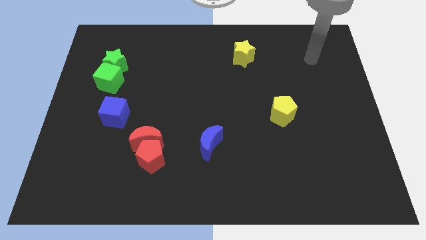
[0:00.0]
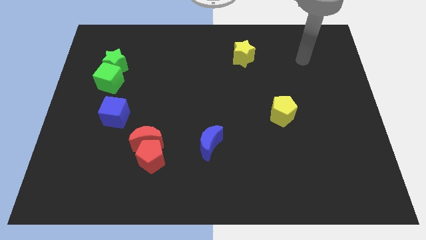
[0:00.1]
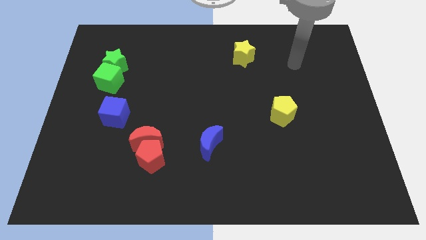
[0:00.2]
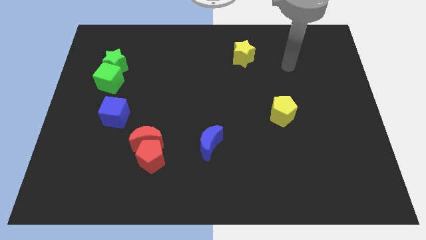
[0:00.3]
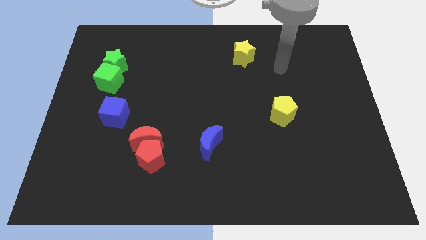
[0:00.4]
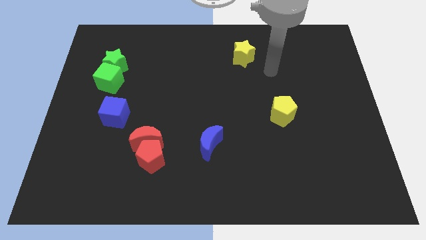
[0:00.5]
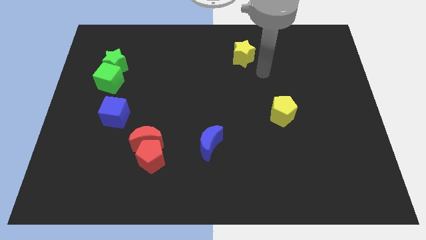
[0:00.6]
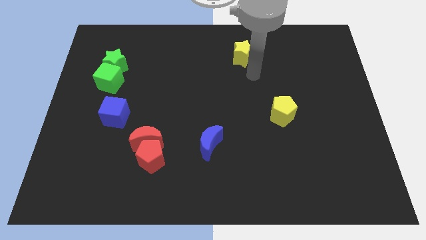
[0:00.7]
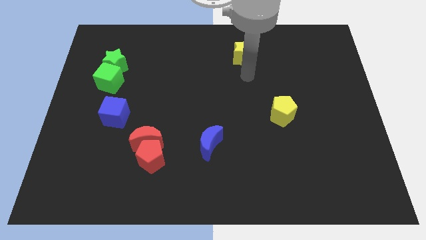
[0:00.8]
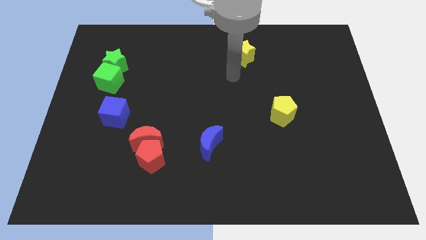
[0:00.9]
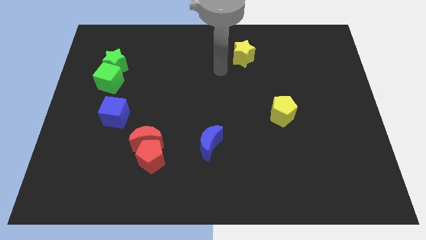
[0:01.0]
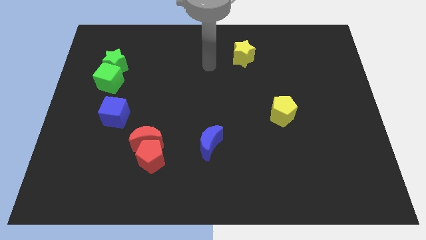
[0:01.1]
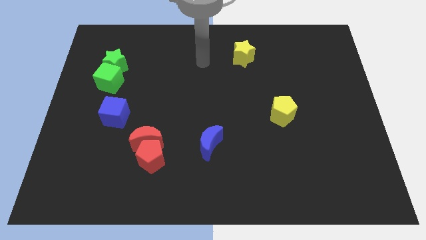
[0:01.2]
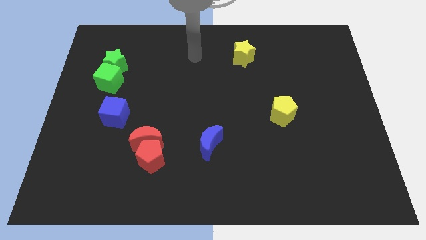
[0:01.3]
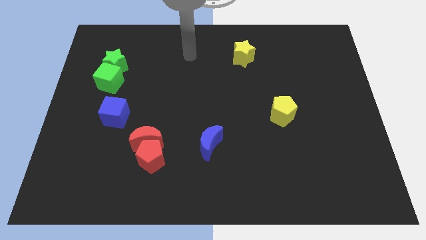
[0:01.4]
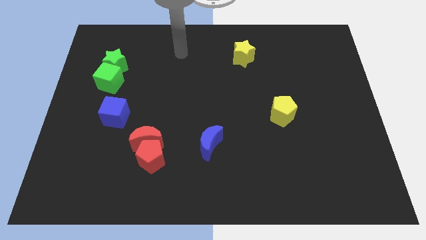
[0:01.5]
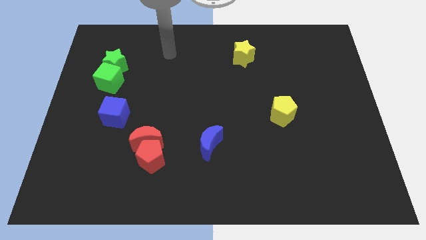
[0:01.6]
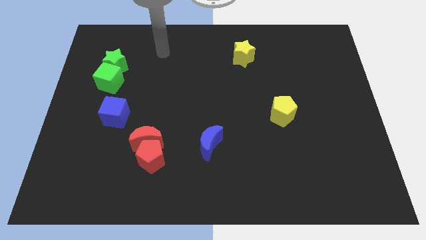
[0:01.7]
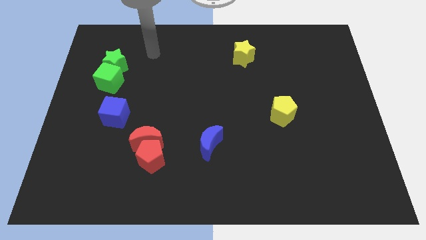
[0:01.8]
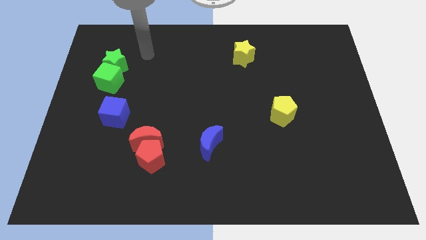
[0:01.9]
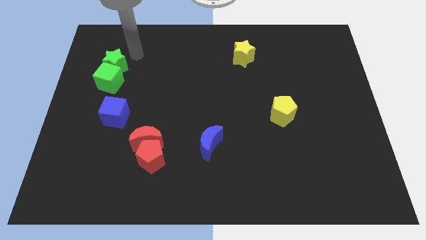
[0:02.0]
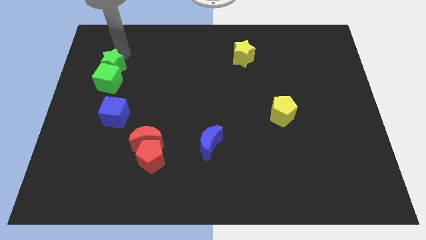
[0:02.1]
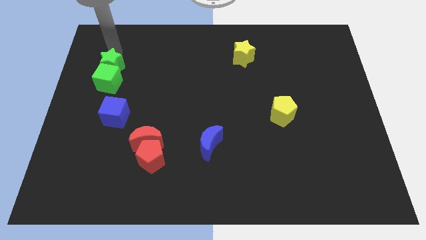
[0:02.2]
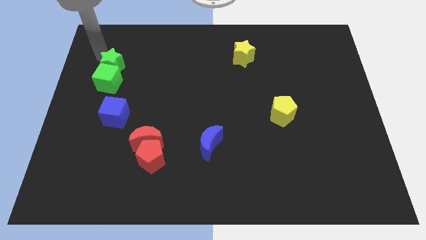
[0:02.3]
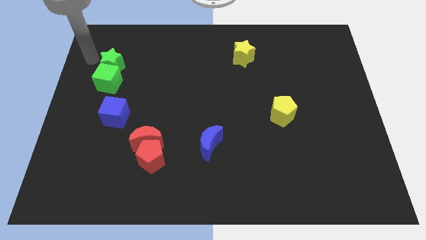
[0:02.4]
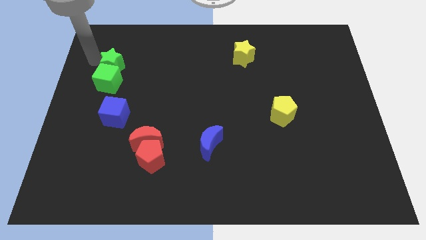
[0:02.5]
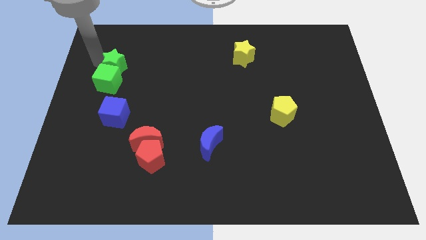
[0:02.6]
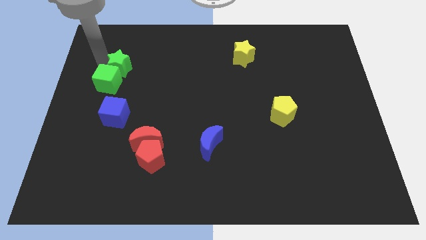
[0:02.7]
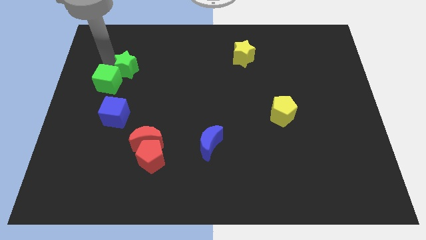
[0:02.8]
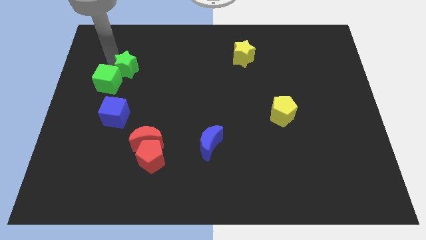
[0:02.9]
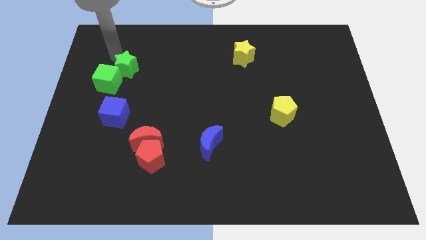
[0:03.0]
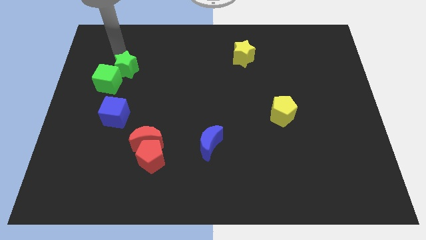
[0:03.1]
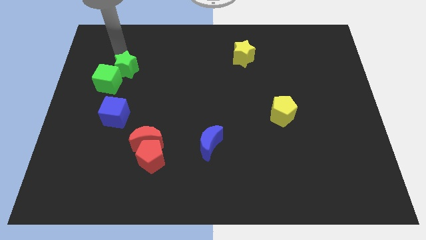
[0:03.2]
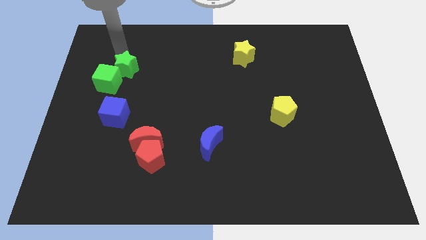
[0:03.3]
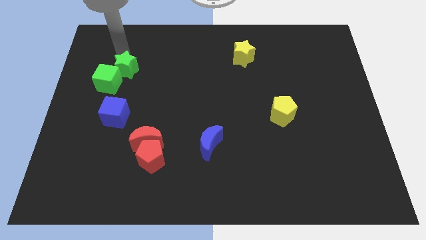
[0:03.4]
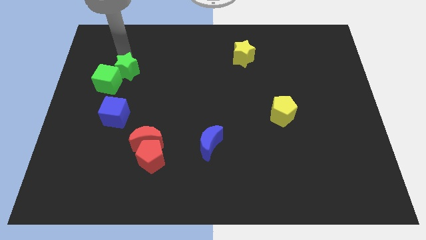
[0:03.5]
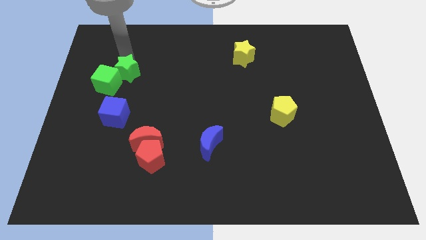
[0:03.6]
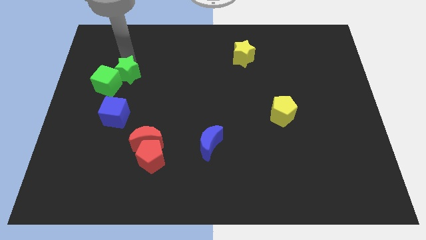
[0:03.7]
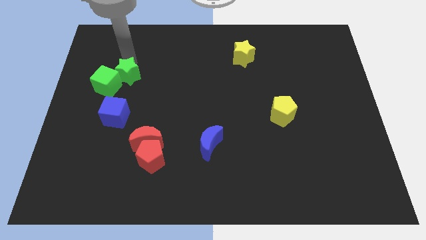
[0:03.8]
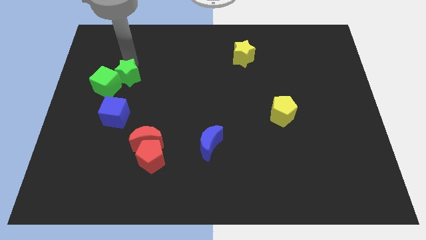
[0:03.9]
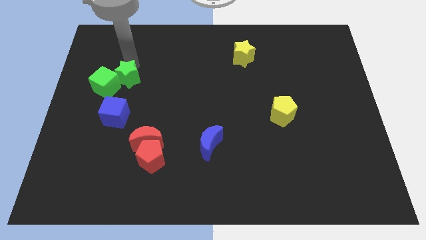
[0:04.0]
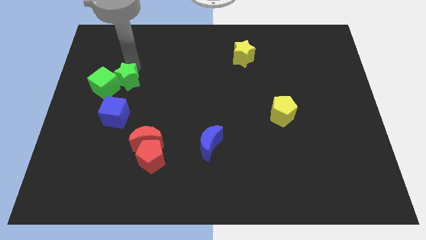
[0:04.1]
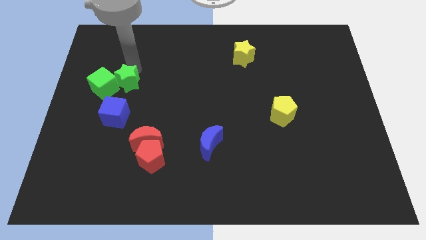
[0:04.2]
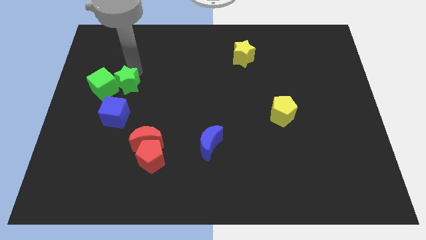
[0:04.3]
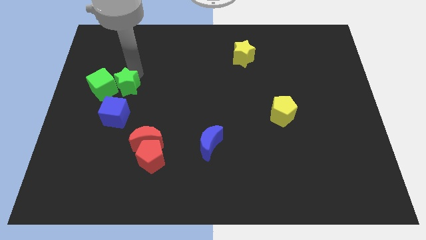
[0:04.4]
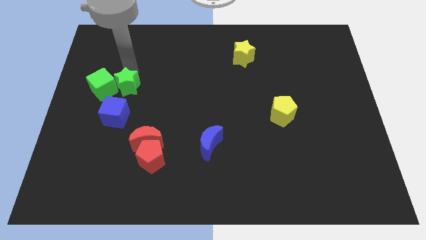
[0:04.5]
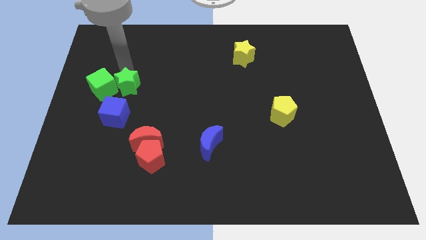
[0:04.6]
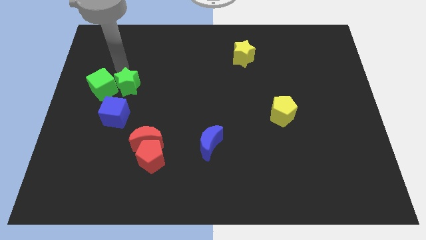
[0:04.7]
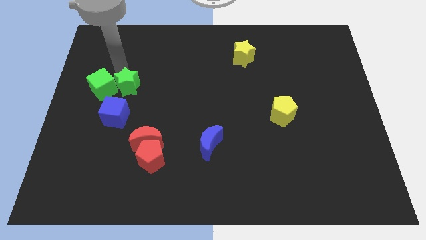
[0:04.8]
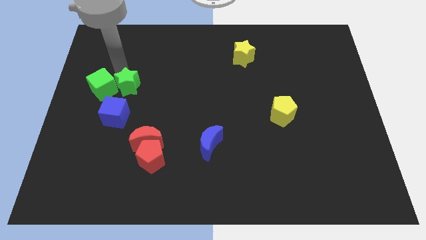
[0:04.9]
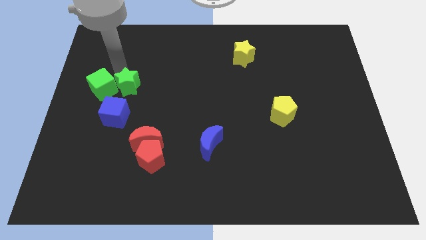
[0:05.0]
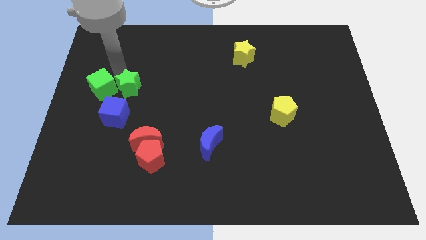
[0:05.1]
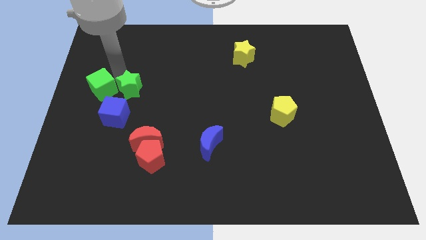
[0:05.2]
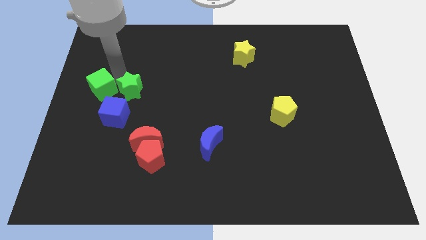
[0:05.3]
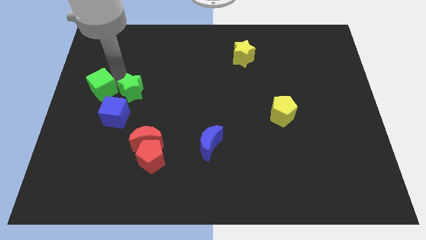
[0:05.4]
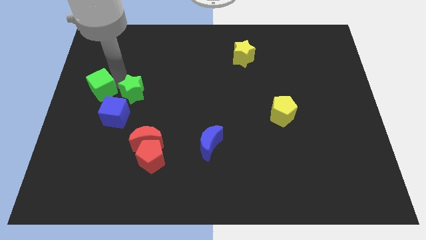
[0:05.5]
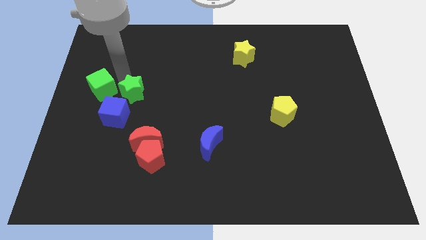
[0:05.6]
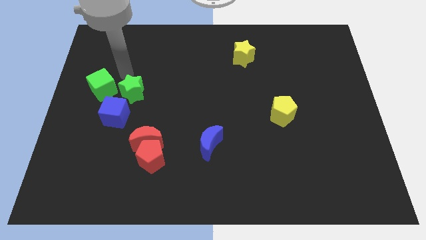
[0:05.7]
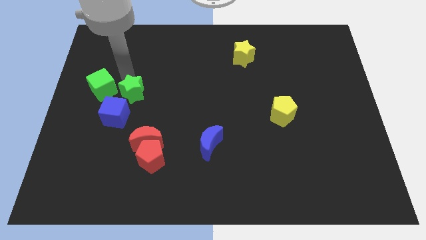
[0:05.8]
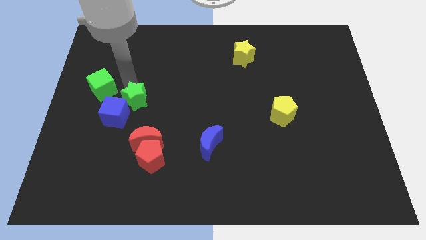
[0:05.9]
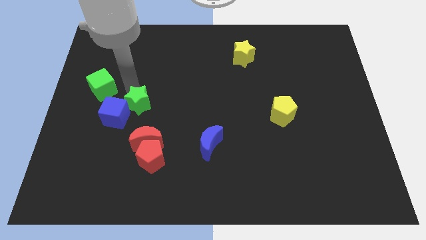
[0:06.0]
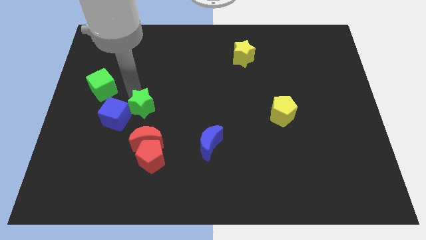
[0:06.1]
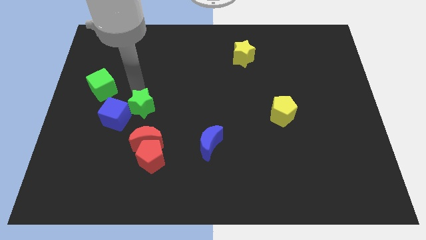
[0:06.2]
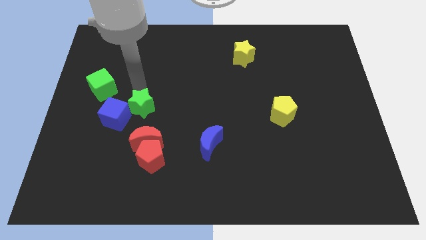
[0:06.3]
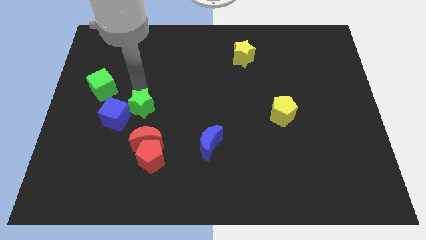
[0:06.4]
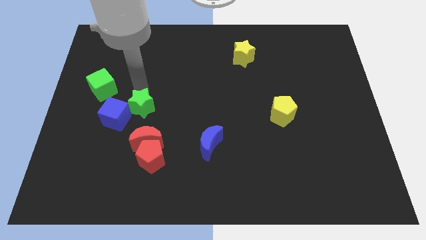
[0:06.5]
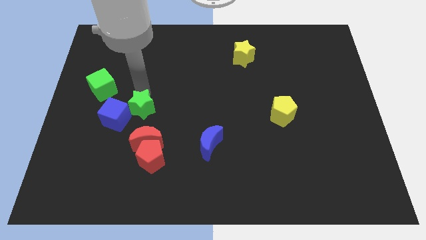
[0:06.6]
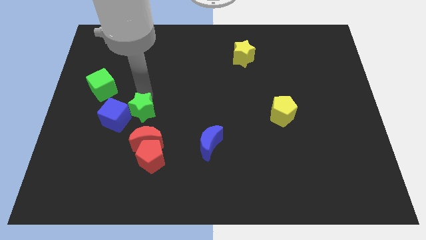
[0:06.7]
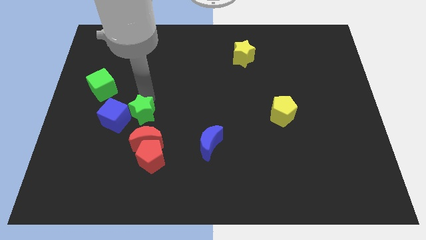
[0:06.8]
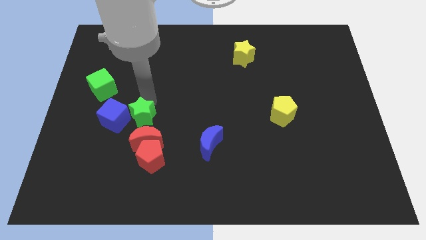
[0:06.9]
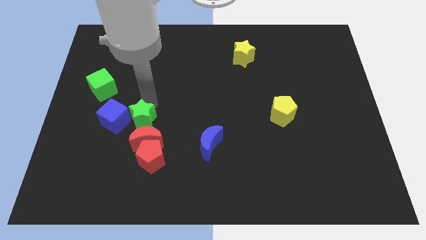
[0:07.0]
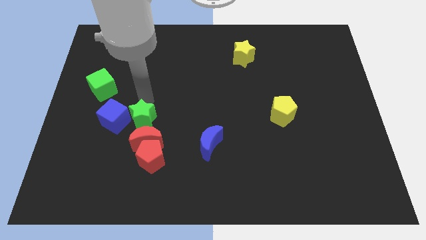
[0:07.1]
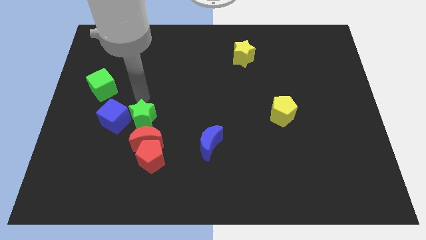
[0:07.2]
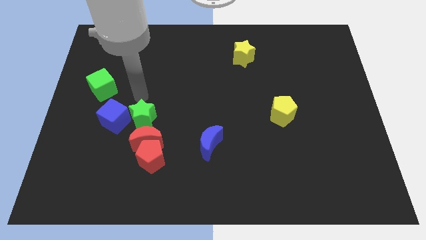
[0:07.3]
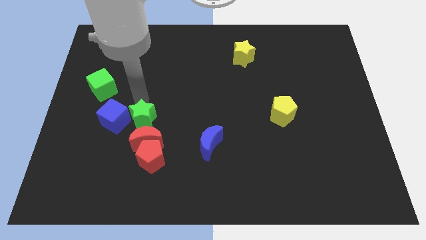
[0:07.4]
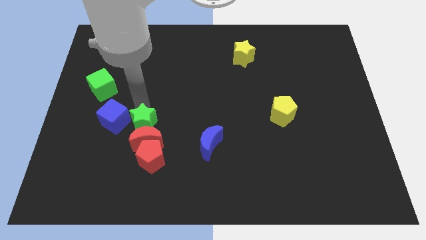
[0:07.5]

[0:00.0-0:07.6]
slide the green star towards the red moon
